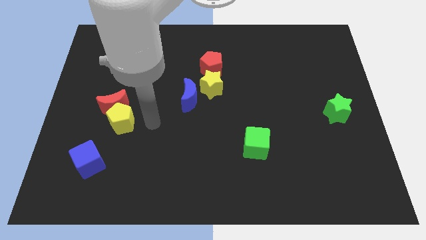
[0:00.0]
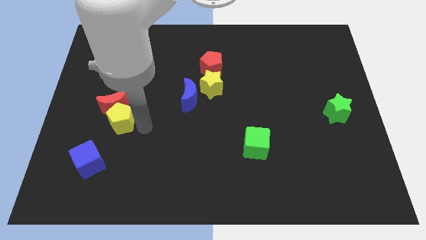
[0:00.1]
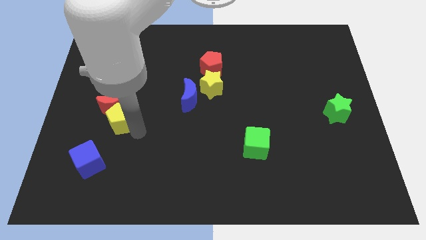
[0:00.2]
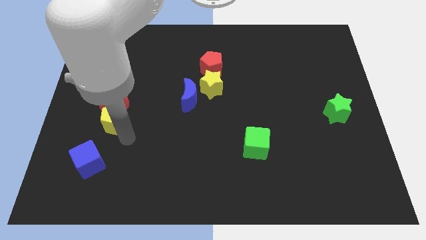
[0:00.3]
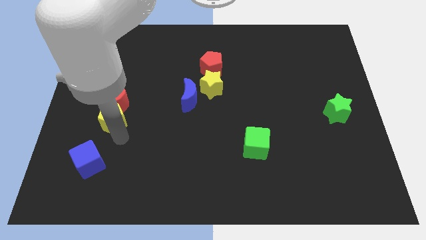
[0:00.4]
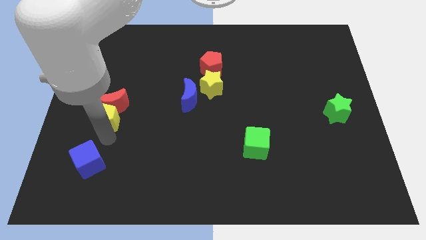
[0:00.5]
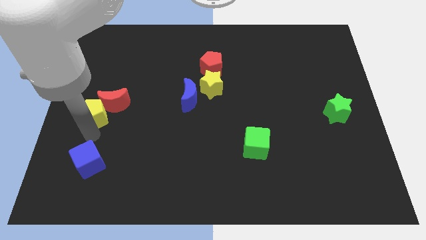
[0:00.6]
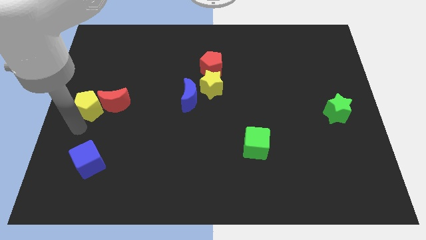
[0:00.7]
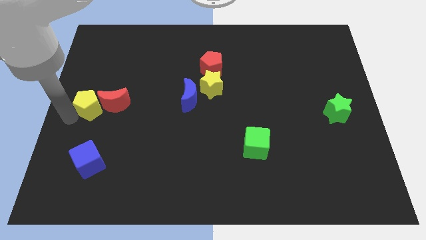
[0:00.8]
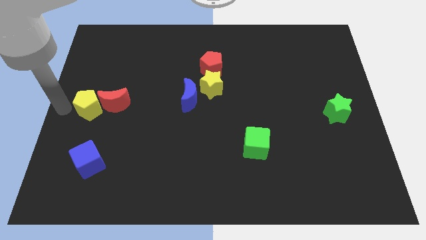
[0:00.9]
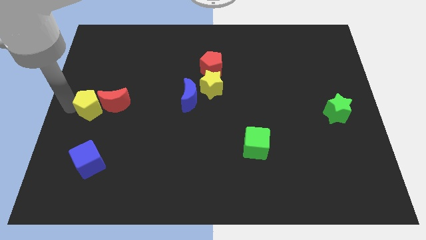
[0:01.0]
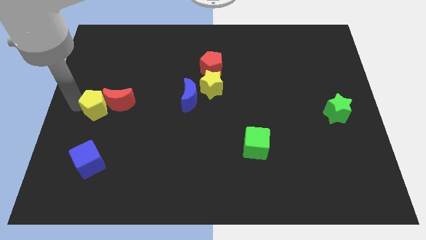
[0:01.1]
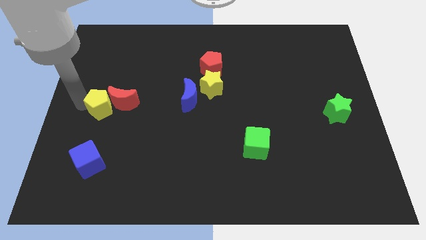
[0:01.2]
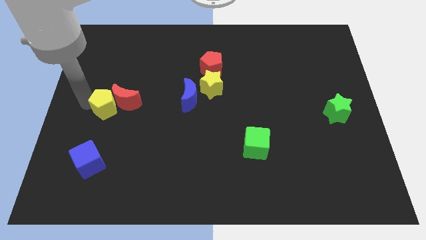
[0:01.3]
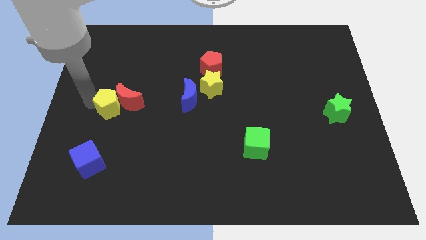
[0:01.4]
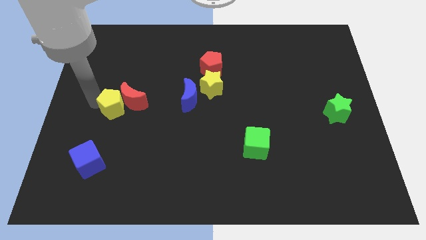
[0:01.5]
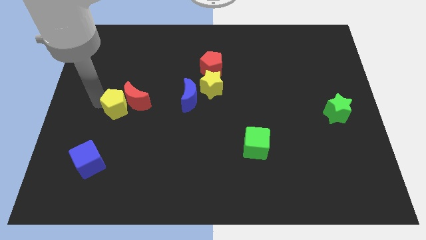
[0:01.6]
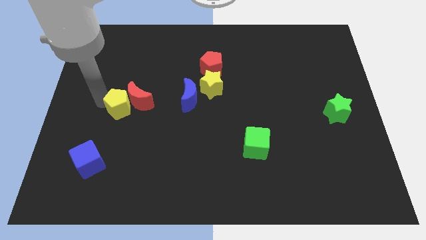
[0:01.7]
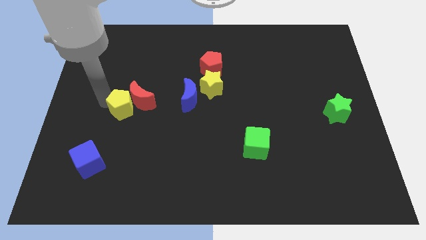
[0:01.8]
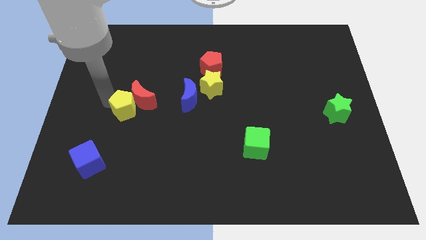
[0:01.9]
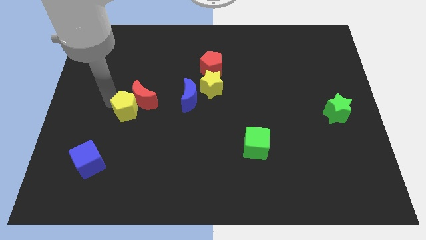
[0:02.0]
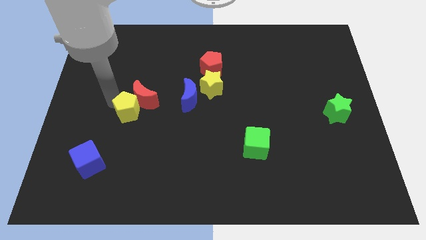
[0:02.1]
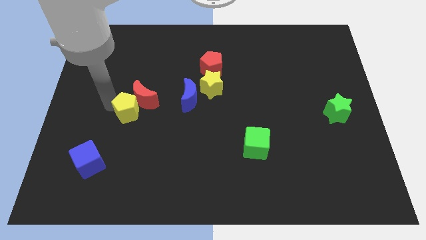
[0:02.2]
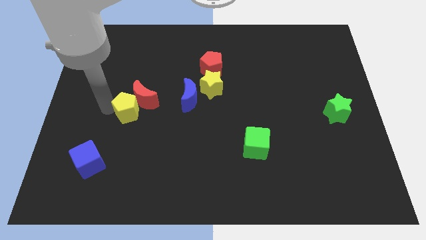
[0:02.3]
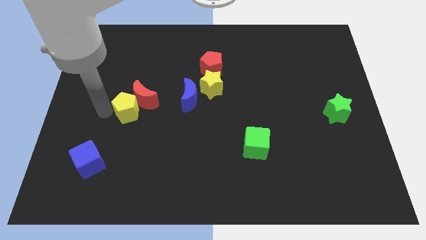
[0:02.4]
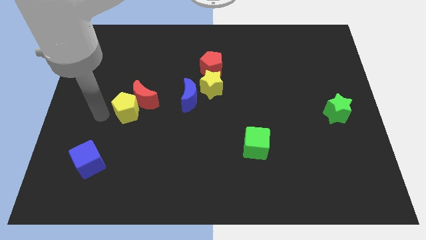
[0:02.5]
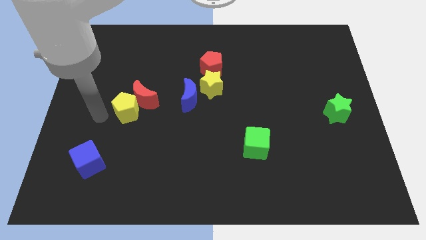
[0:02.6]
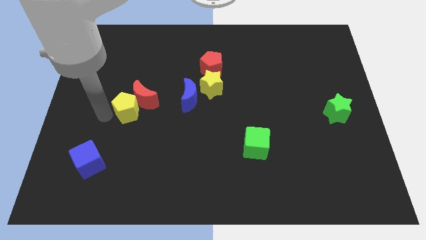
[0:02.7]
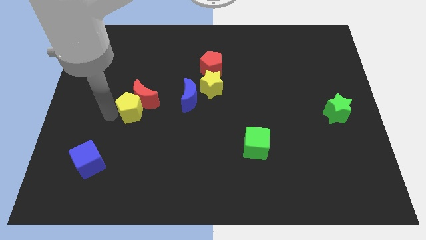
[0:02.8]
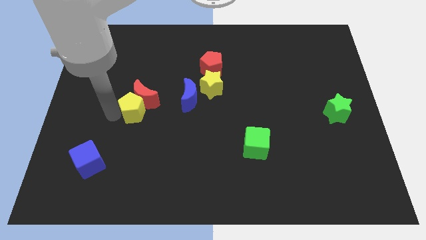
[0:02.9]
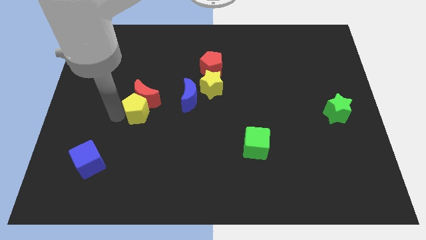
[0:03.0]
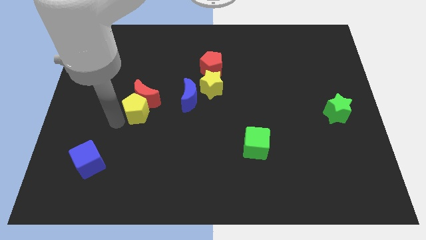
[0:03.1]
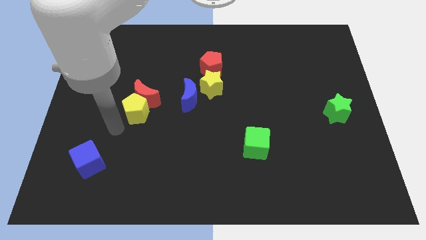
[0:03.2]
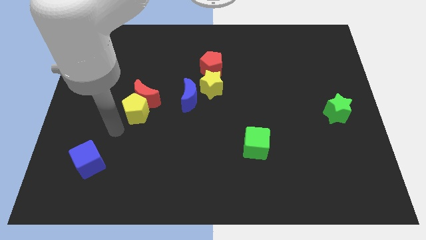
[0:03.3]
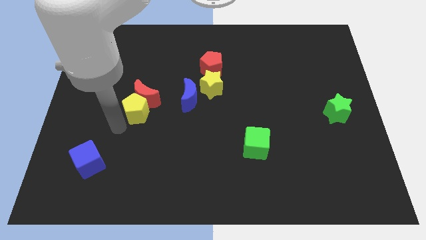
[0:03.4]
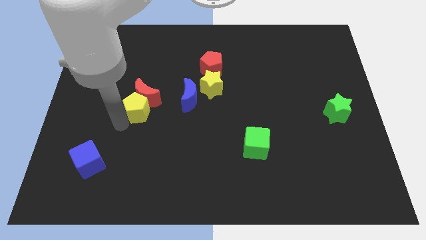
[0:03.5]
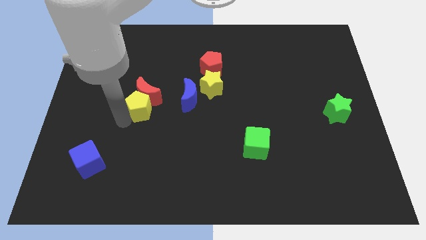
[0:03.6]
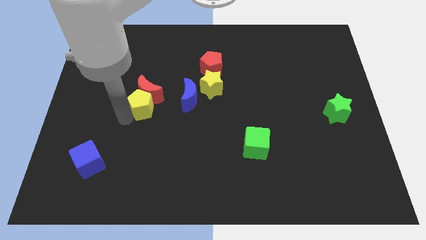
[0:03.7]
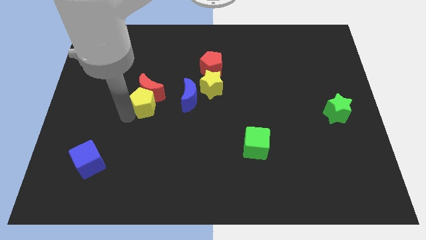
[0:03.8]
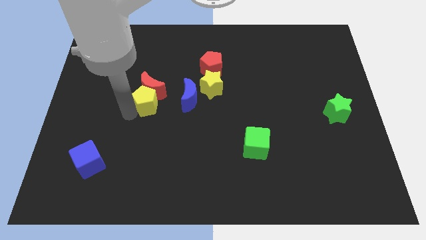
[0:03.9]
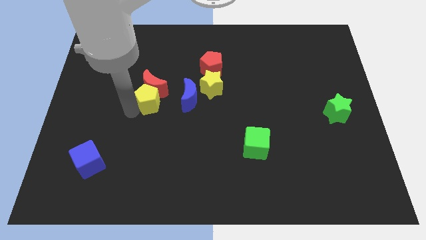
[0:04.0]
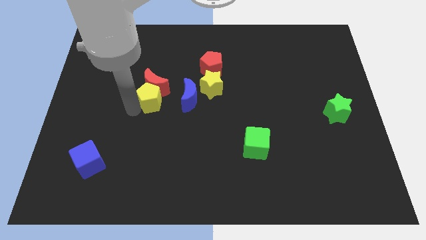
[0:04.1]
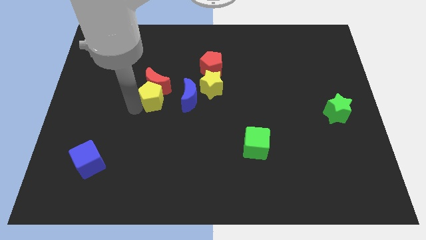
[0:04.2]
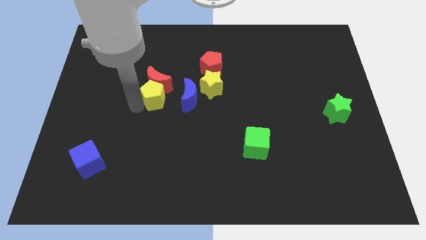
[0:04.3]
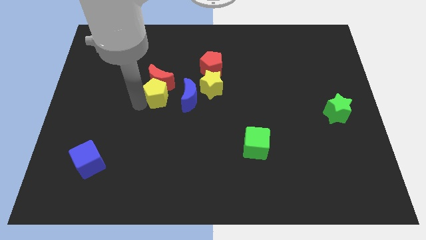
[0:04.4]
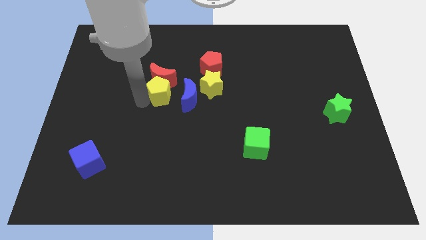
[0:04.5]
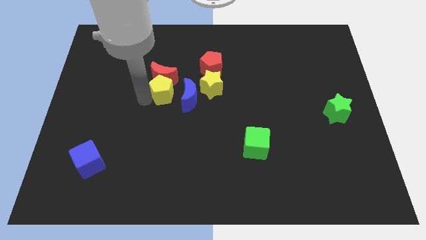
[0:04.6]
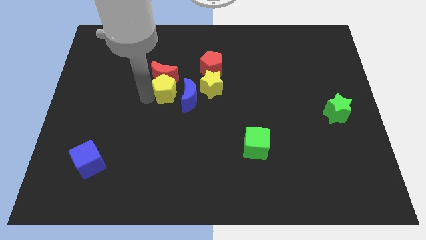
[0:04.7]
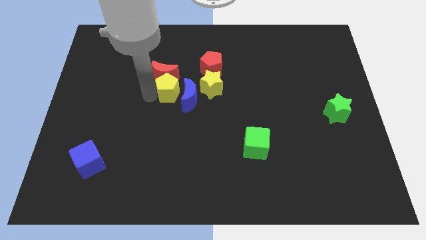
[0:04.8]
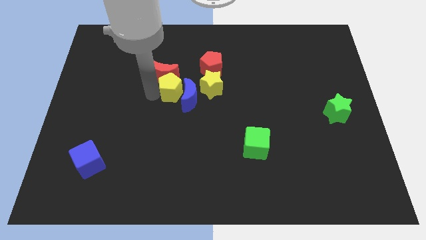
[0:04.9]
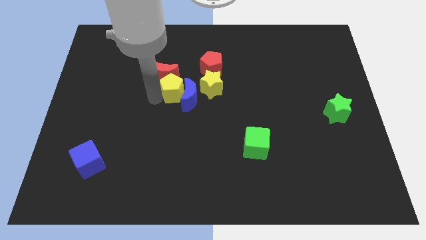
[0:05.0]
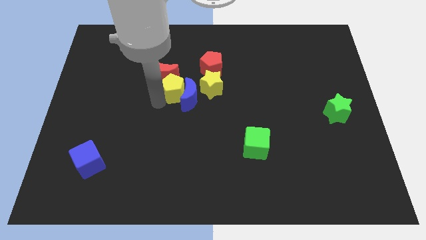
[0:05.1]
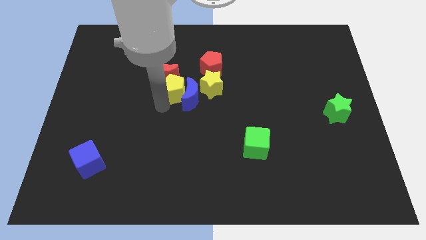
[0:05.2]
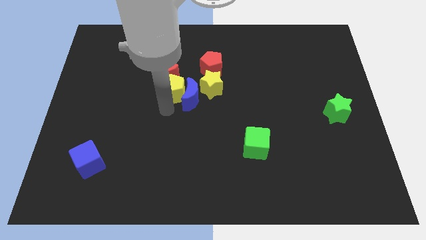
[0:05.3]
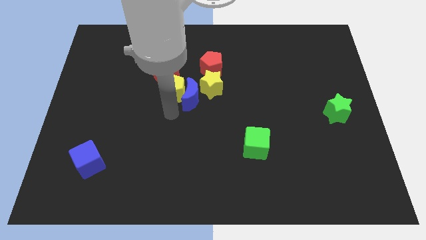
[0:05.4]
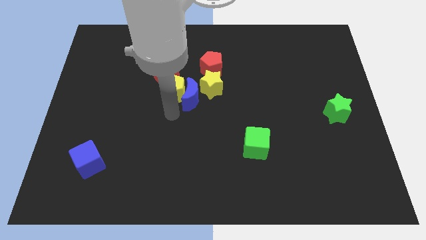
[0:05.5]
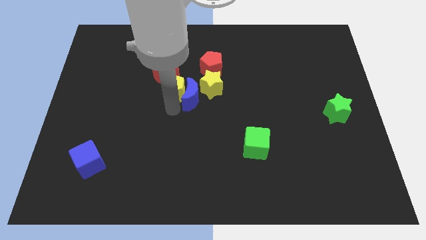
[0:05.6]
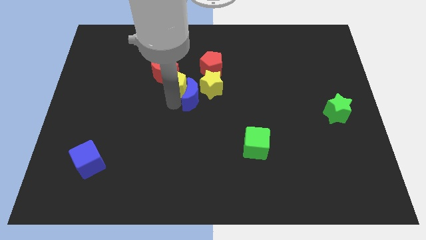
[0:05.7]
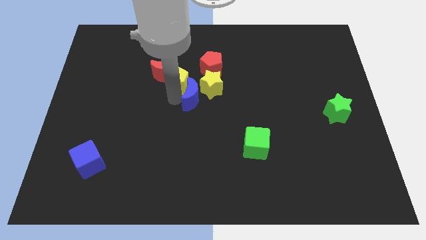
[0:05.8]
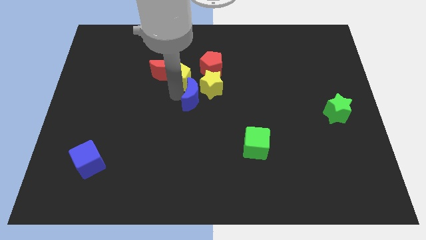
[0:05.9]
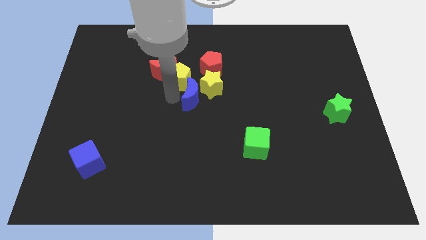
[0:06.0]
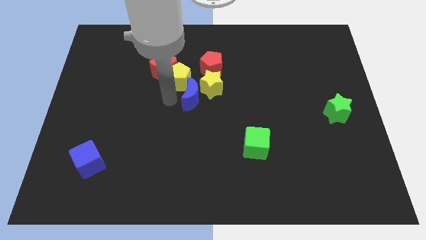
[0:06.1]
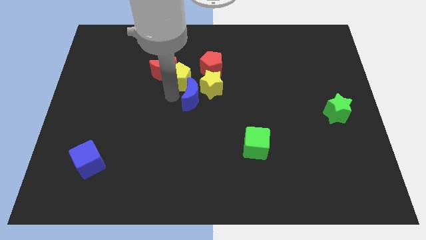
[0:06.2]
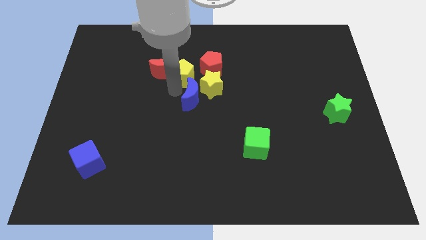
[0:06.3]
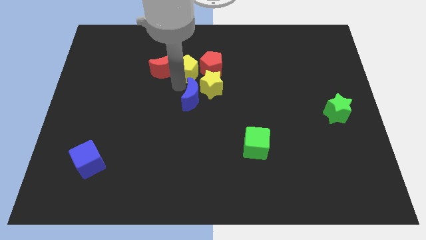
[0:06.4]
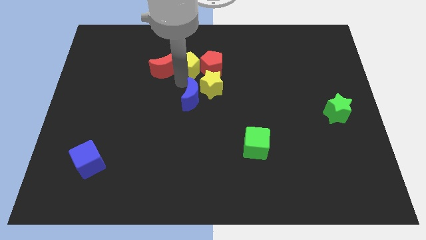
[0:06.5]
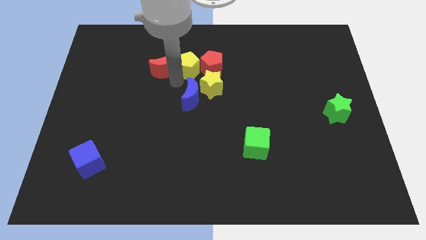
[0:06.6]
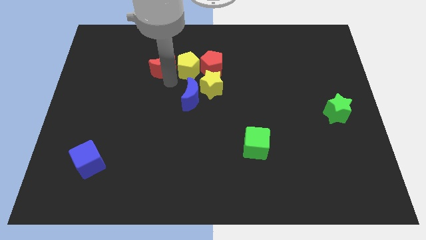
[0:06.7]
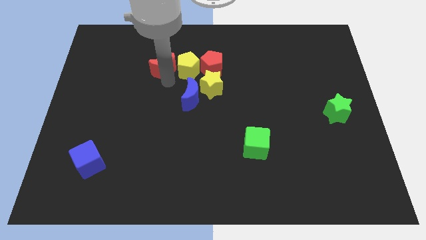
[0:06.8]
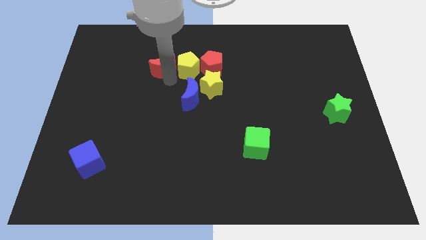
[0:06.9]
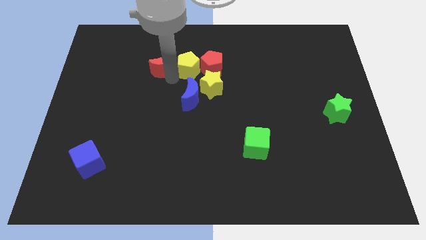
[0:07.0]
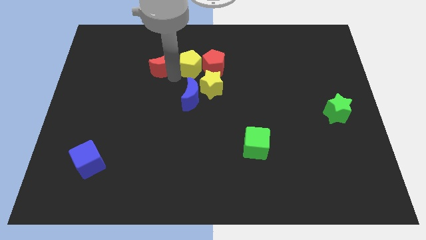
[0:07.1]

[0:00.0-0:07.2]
push the yellow pentagon to the top of the yellow star

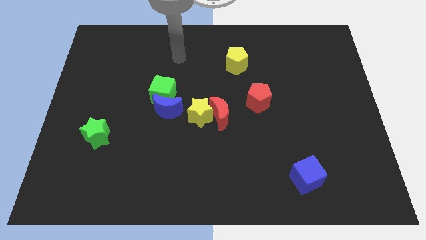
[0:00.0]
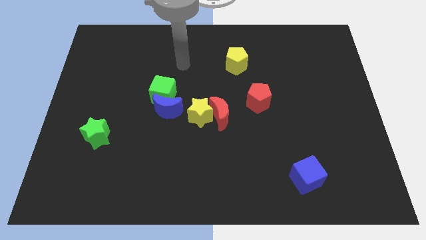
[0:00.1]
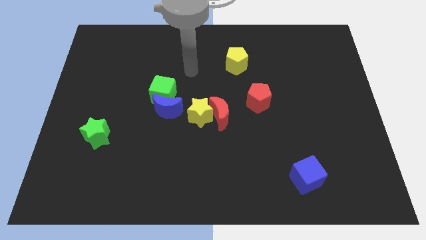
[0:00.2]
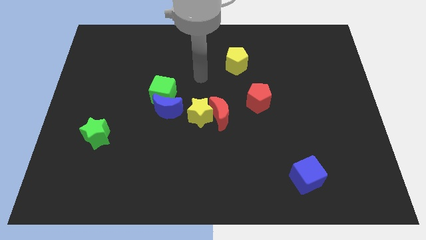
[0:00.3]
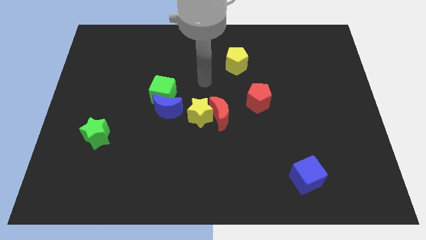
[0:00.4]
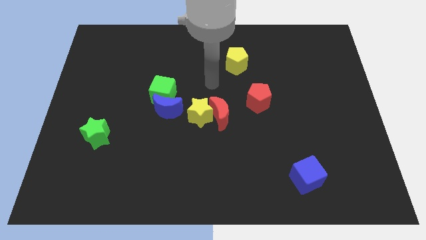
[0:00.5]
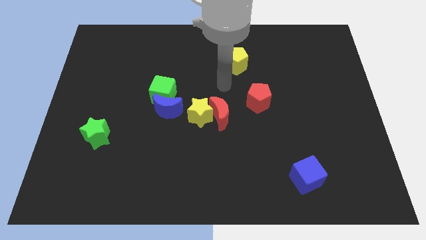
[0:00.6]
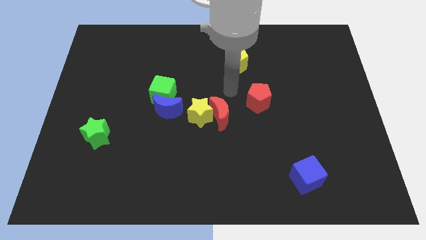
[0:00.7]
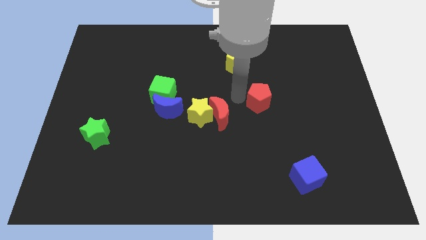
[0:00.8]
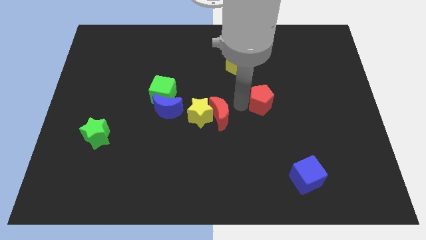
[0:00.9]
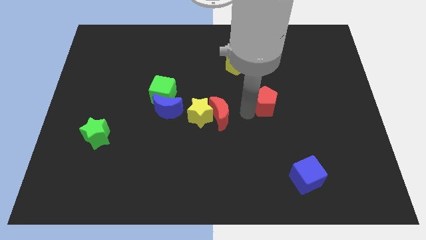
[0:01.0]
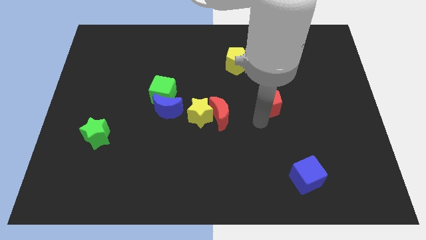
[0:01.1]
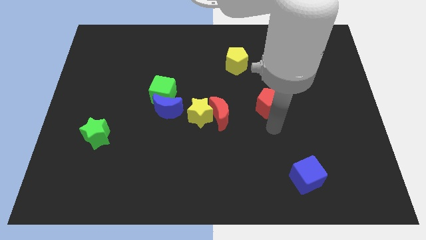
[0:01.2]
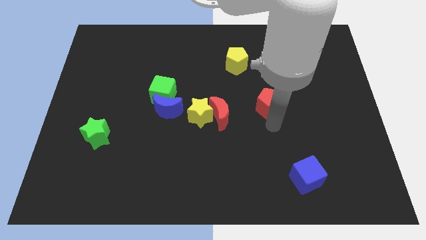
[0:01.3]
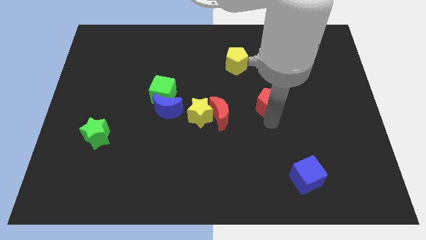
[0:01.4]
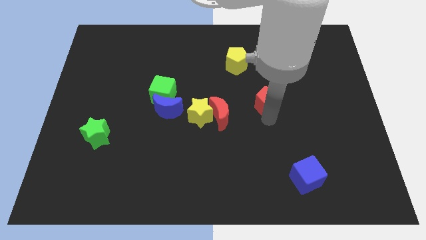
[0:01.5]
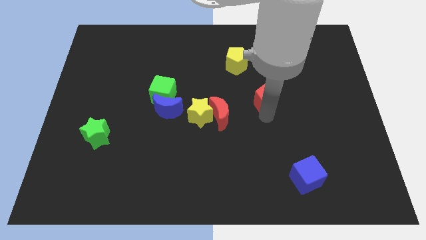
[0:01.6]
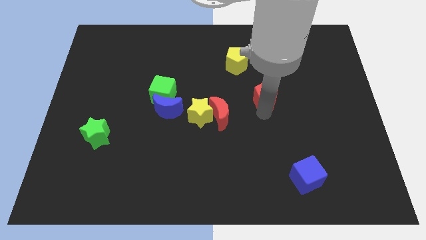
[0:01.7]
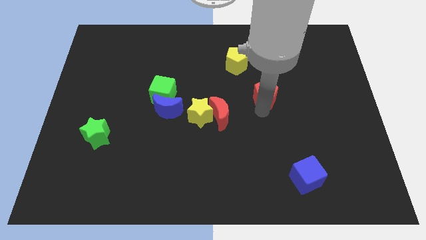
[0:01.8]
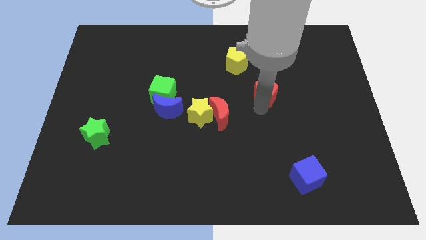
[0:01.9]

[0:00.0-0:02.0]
move the red pentagon diagonally down and to the right of the yellow pentagon
